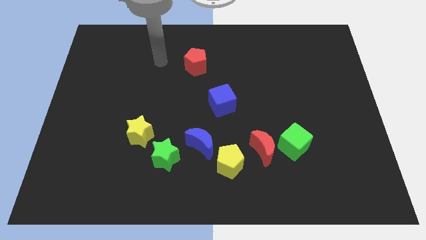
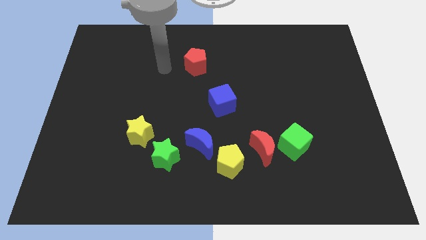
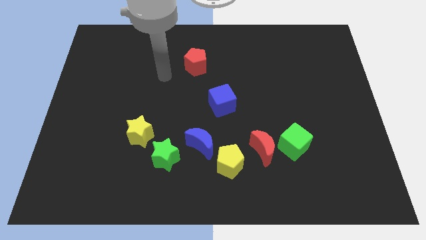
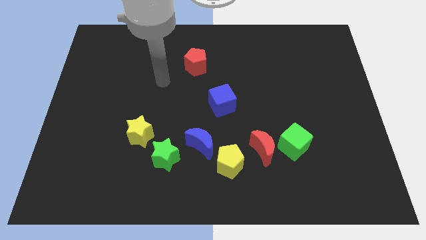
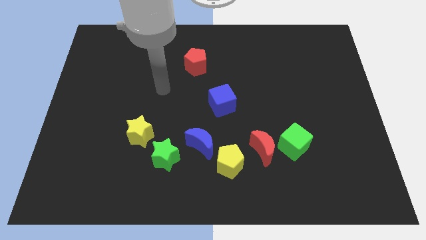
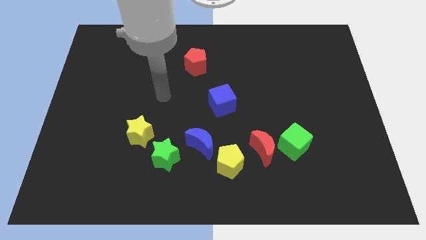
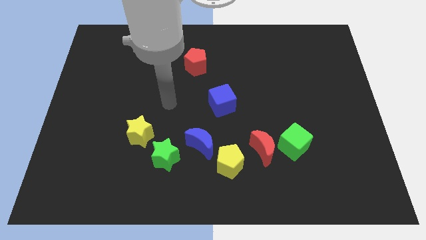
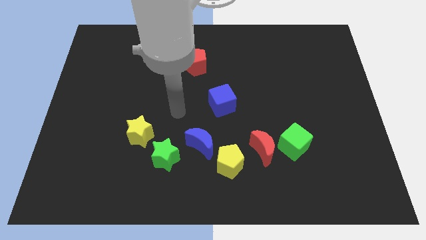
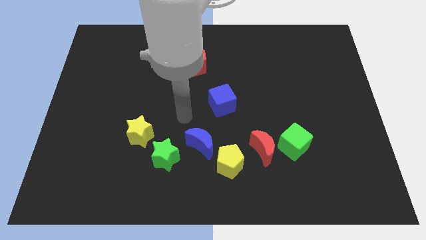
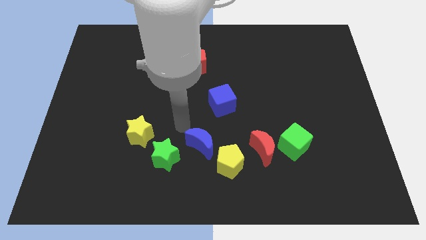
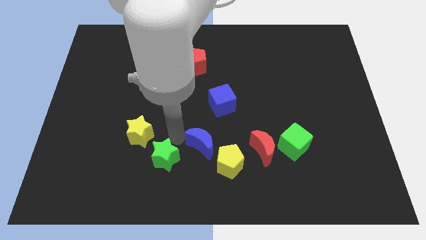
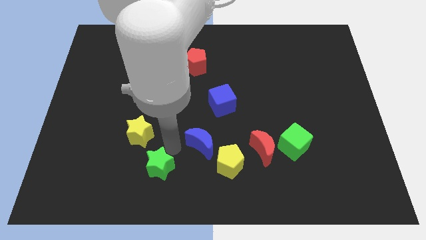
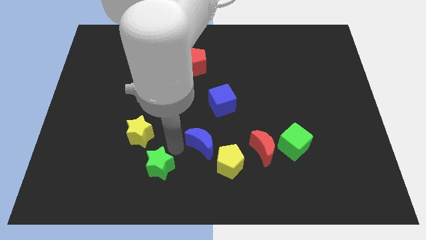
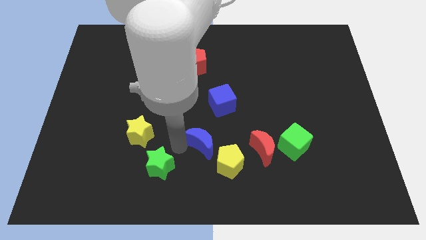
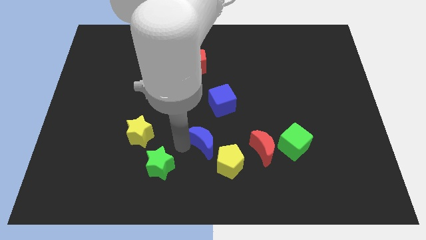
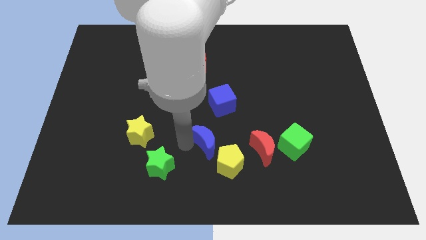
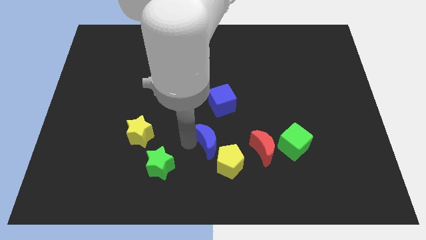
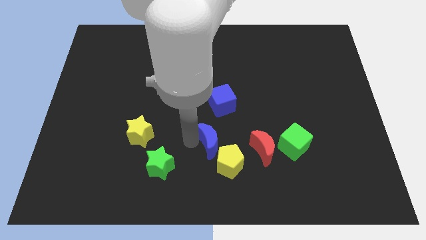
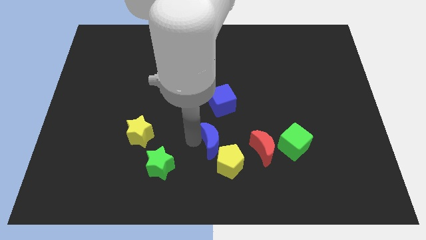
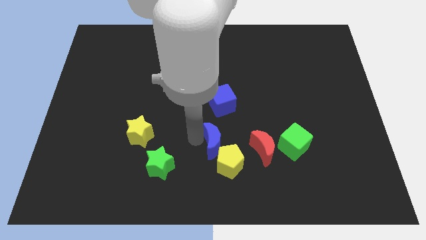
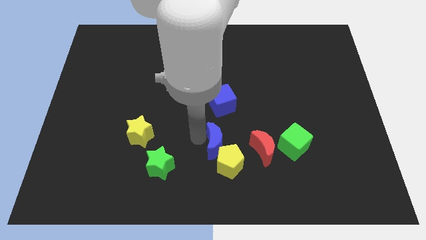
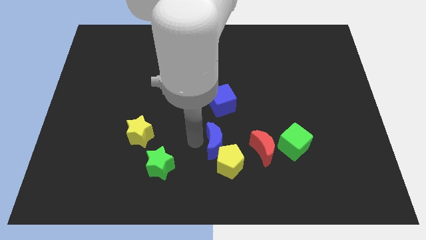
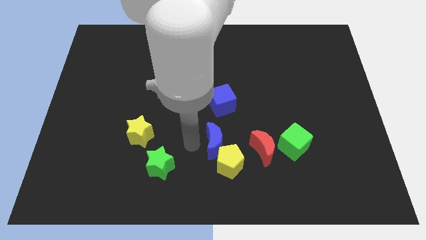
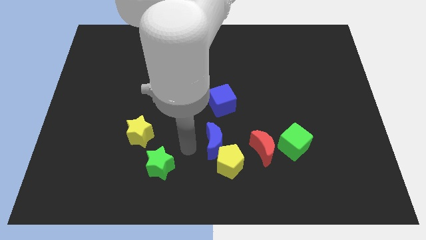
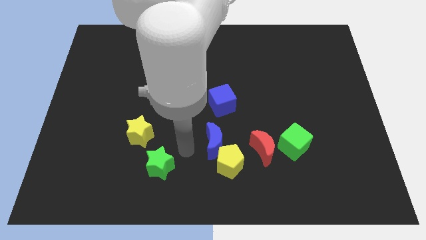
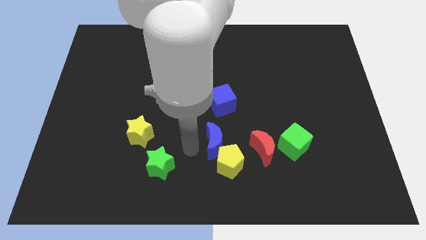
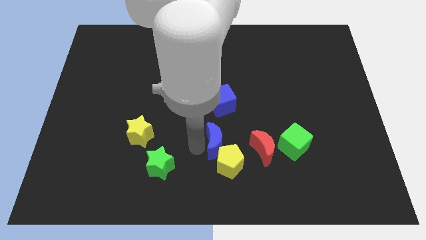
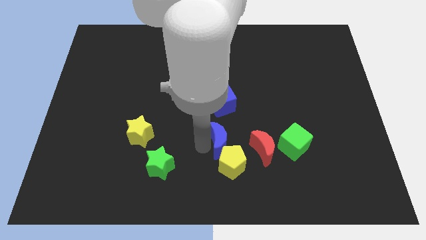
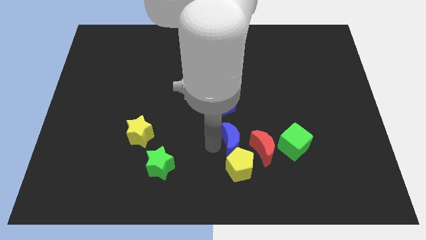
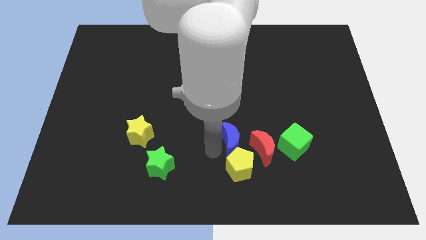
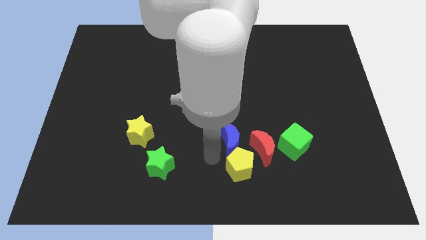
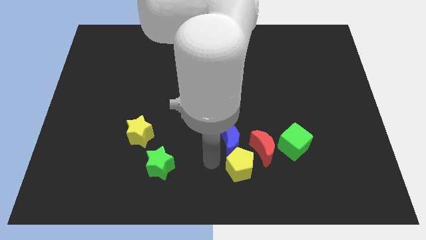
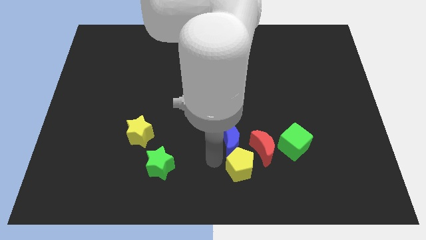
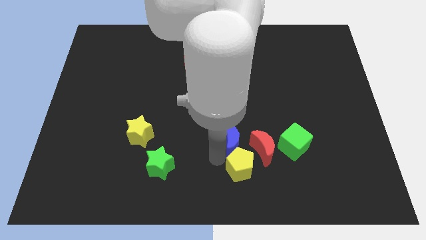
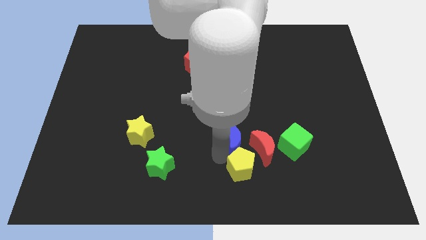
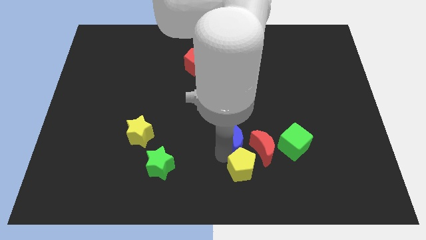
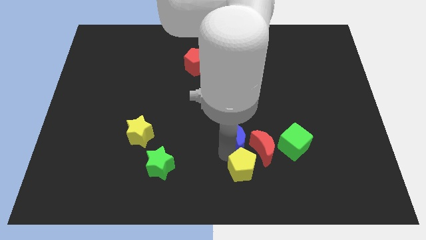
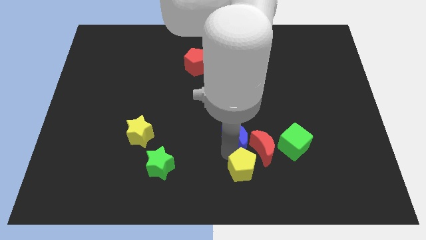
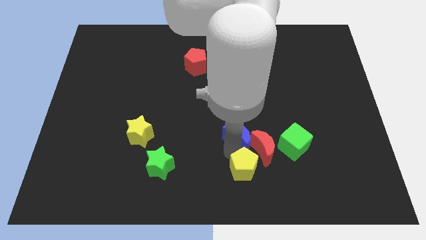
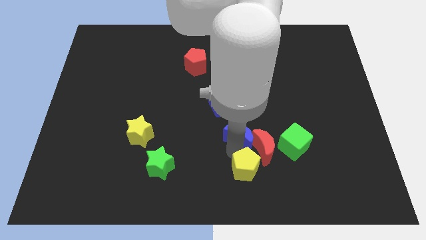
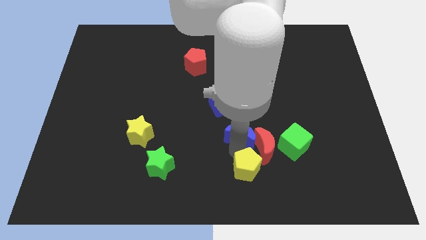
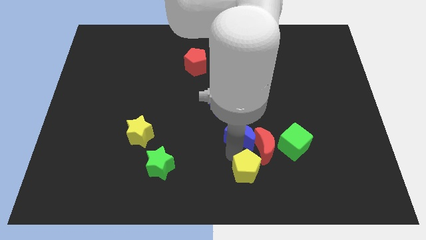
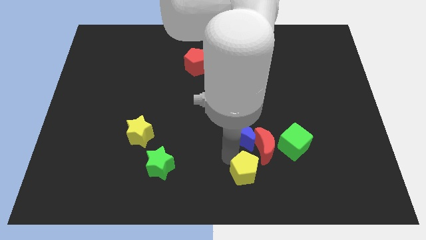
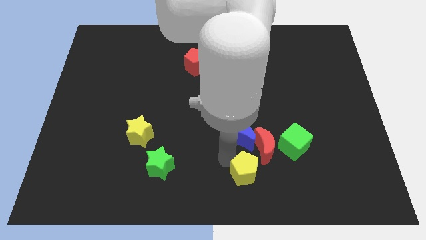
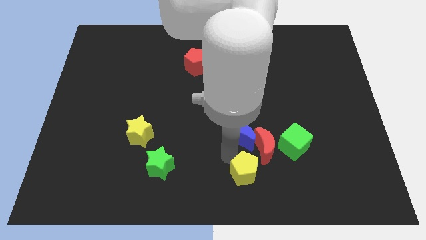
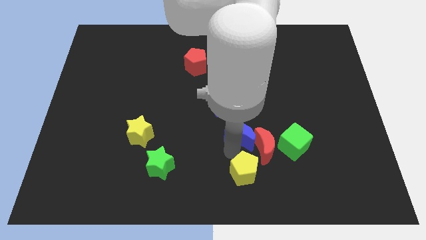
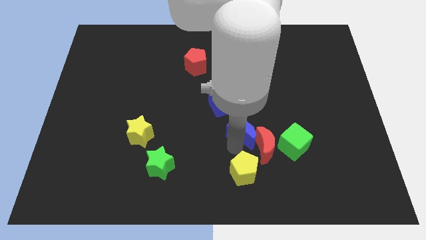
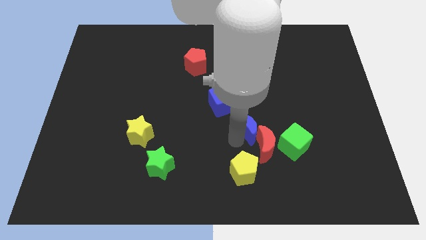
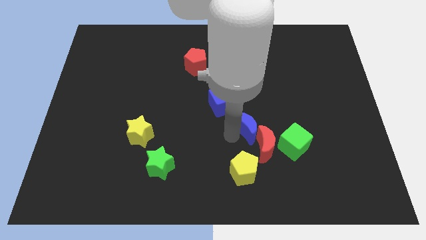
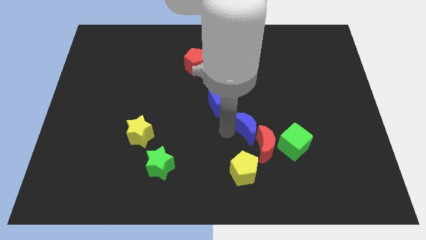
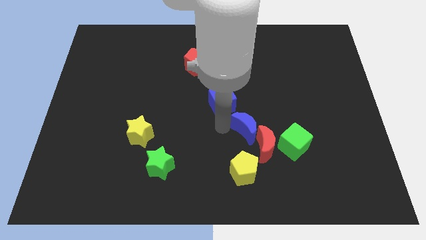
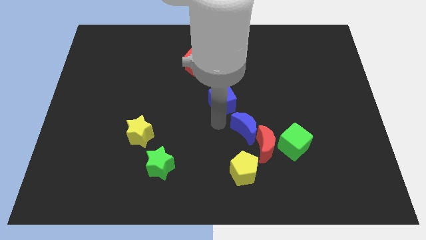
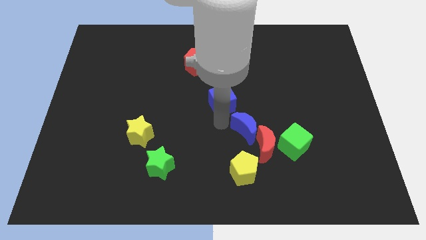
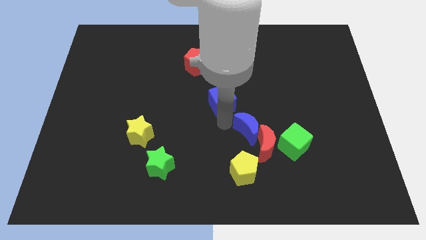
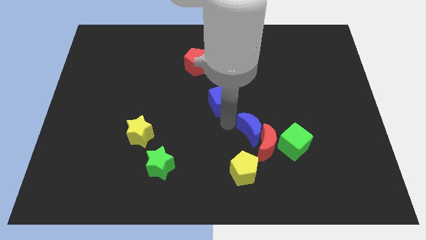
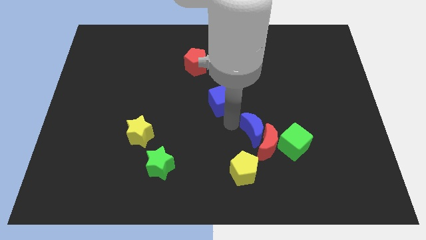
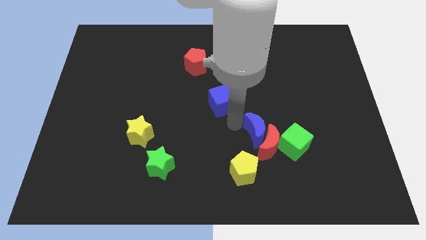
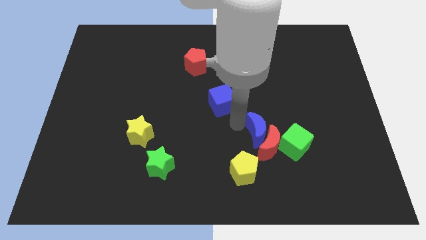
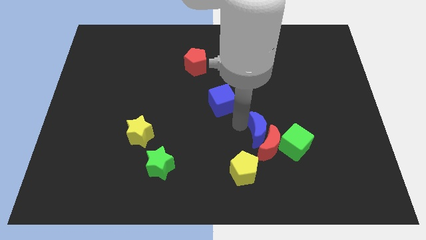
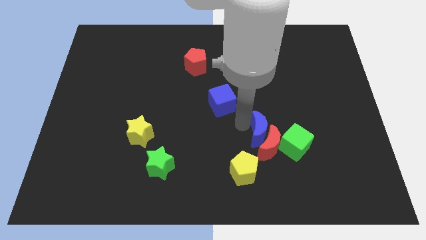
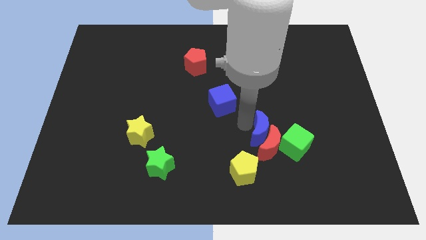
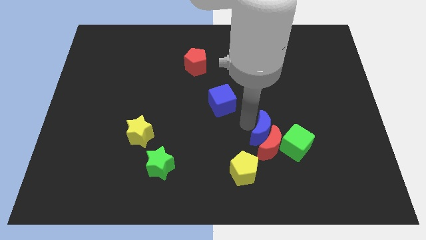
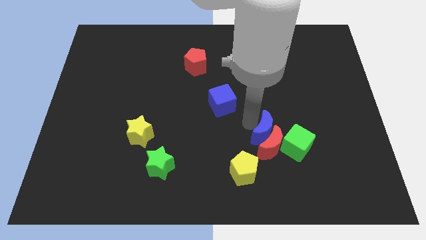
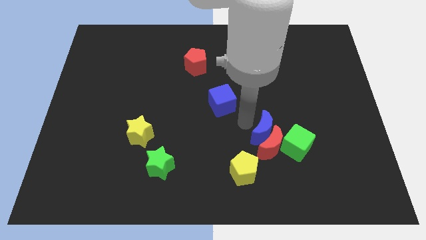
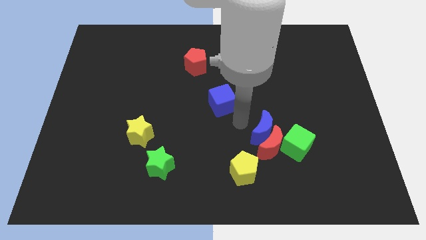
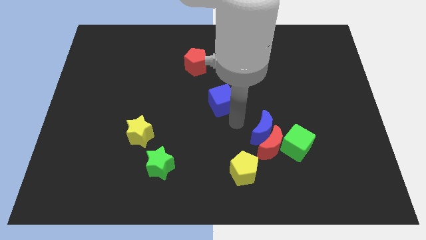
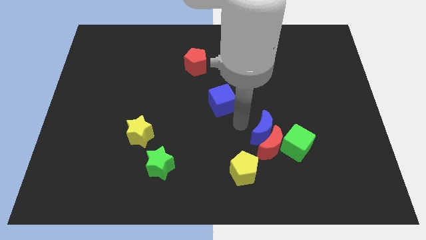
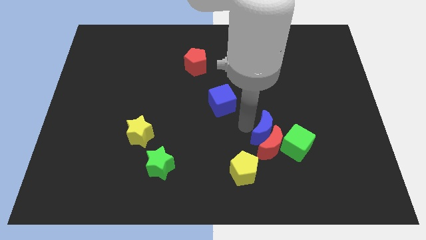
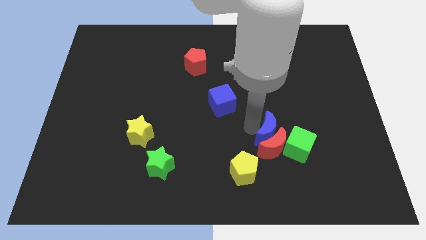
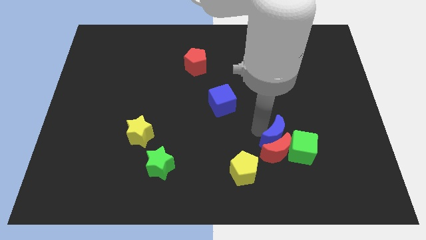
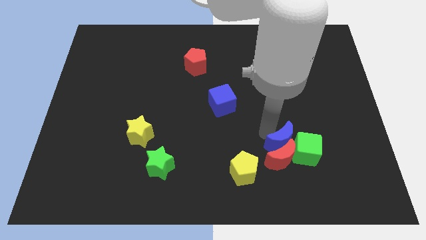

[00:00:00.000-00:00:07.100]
put the blue moon towards the green cube
